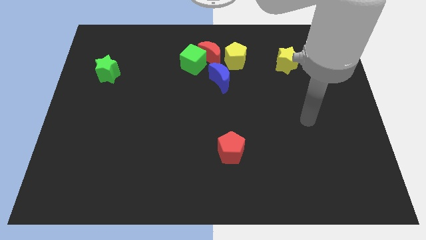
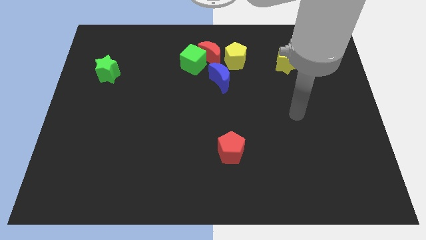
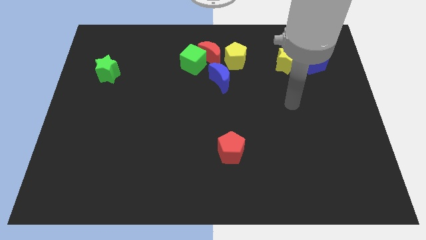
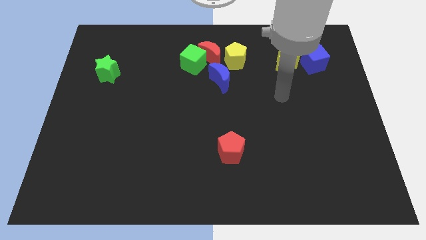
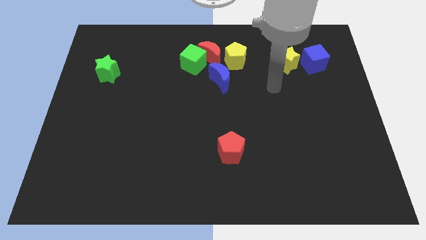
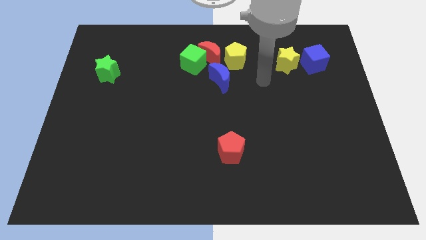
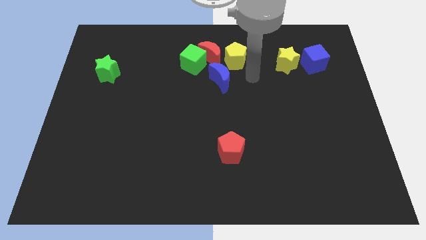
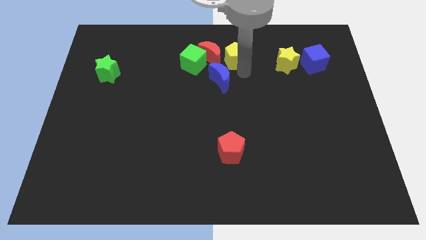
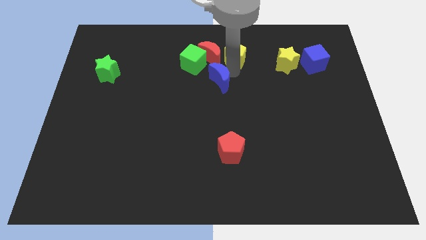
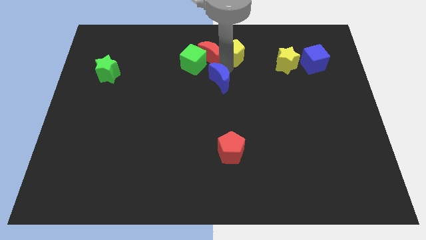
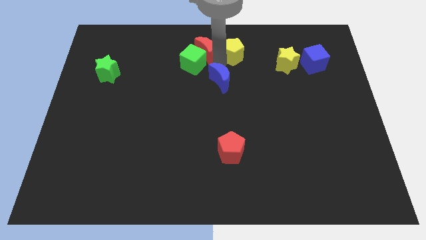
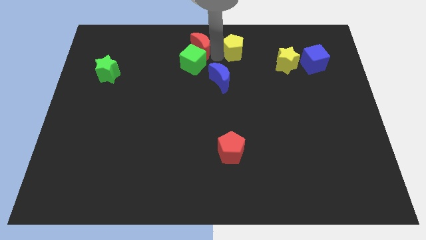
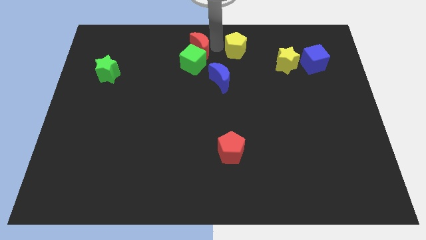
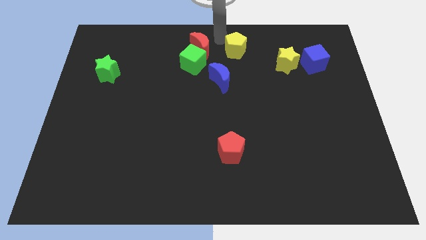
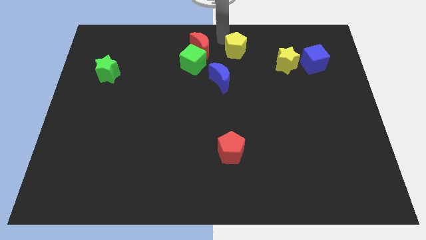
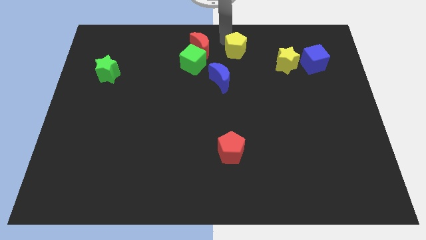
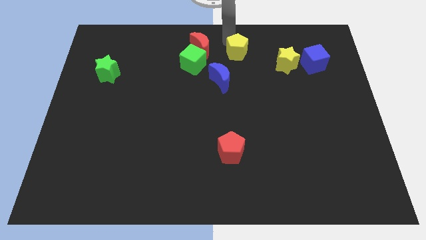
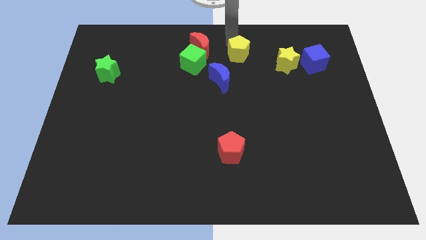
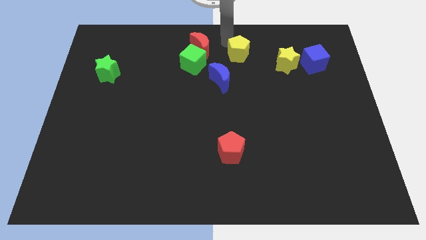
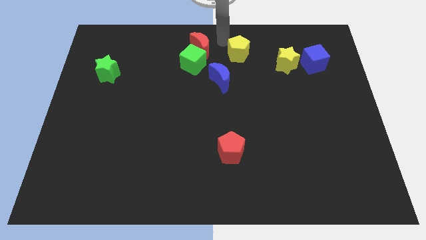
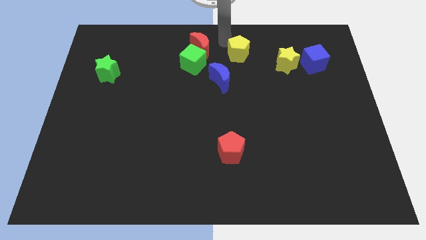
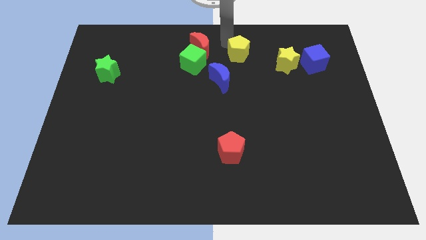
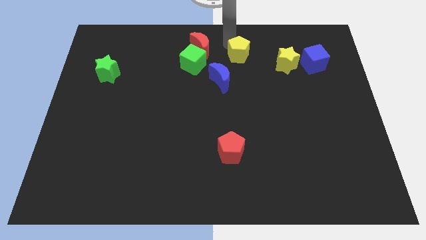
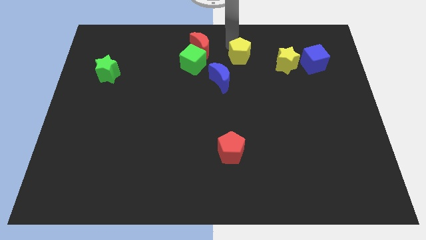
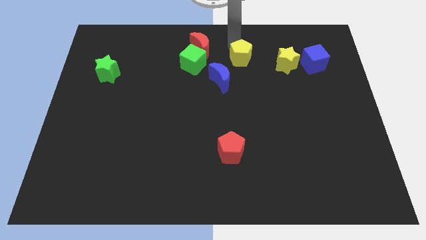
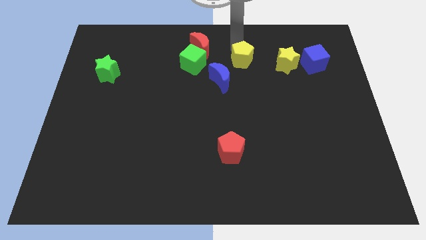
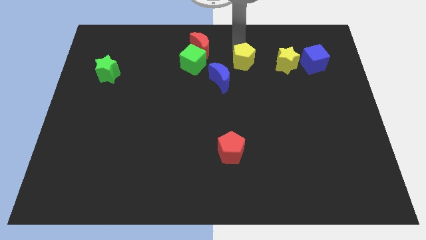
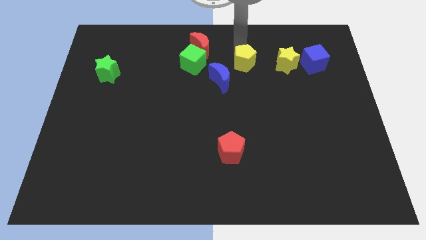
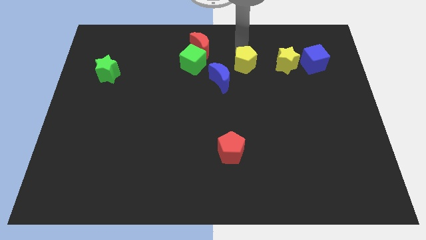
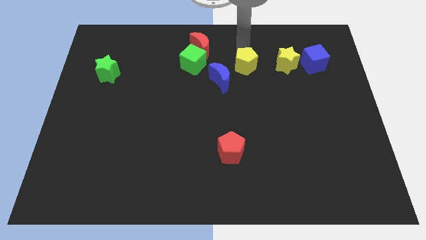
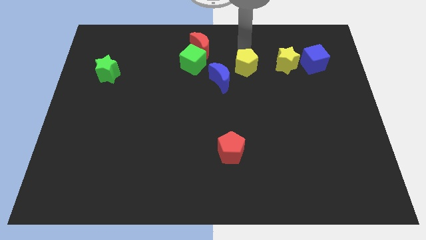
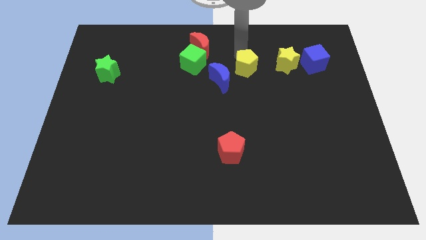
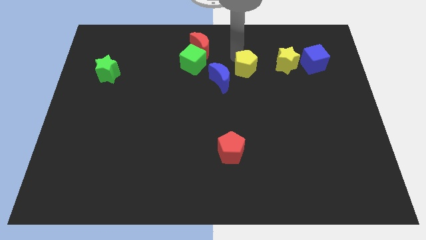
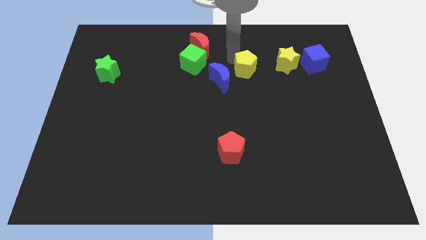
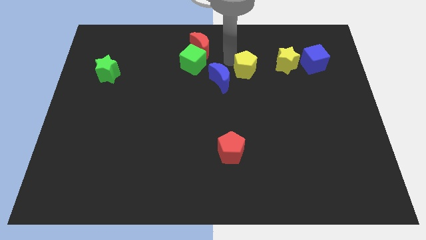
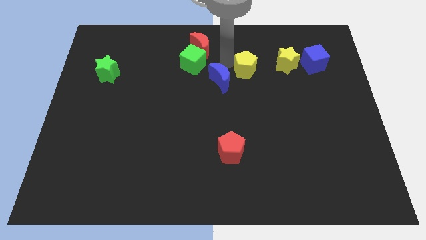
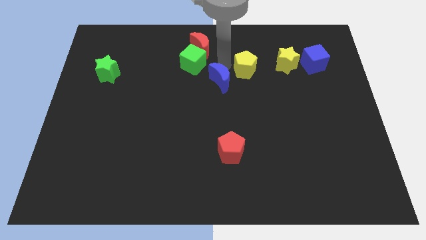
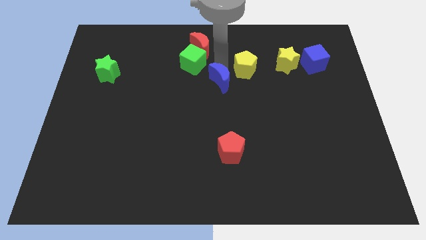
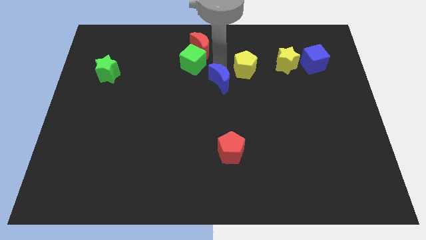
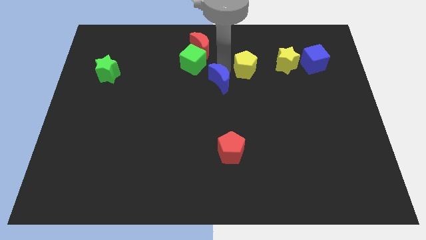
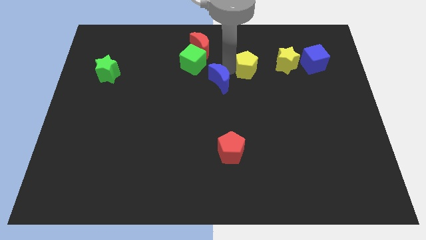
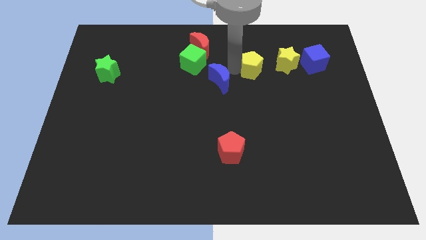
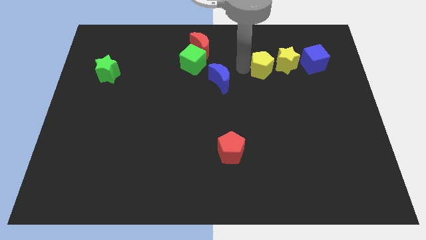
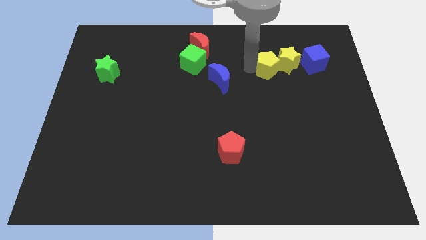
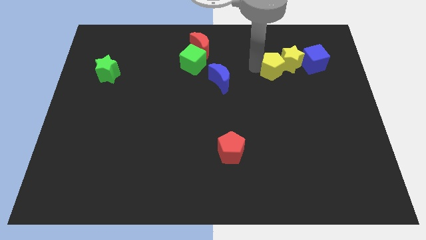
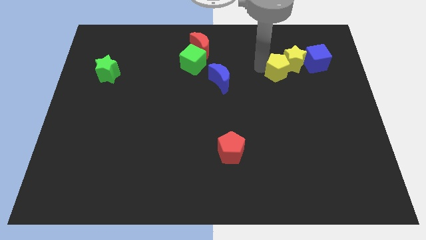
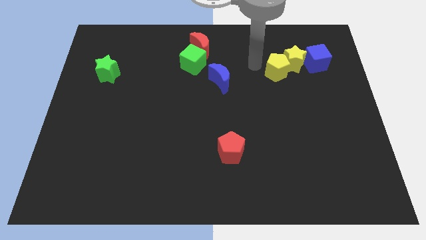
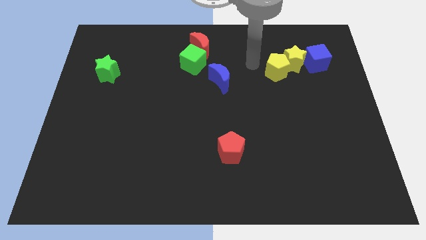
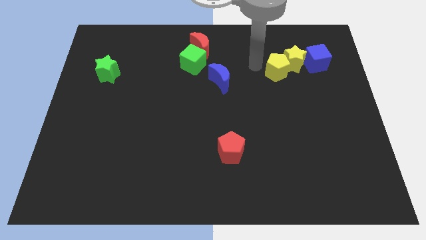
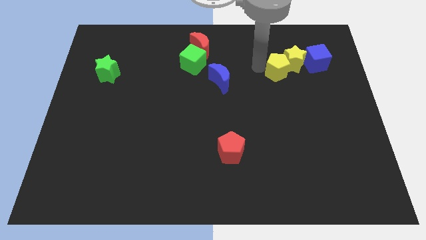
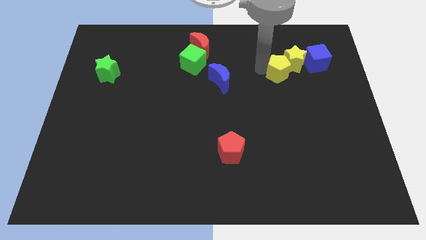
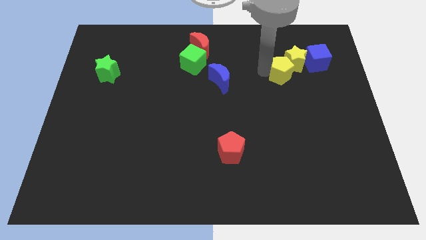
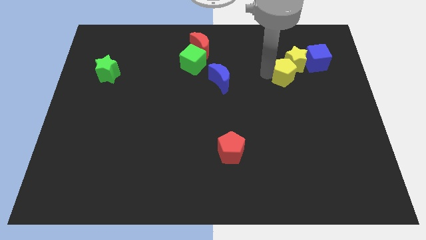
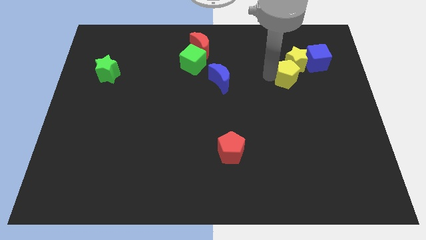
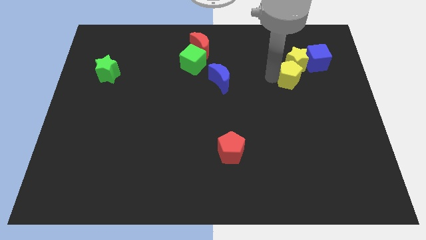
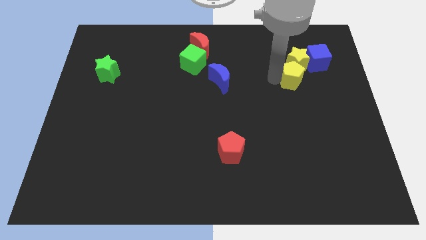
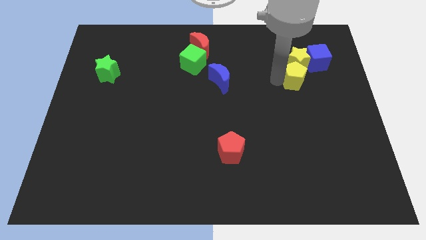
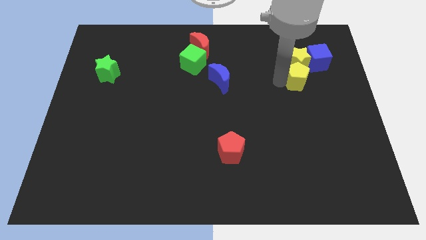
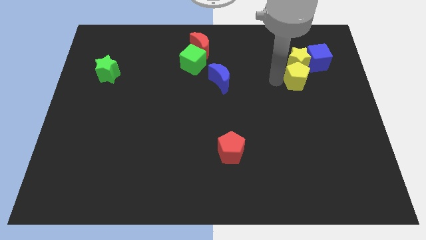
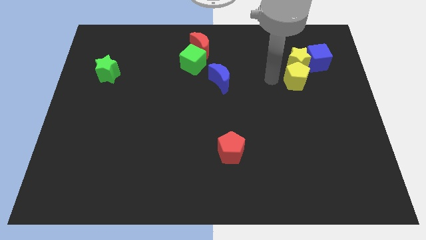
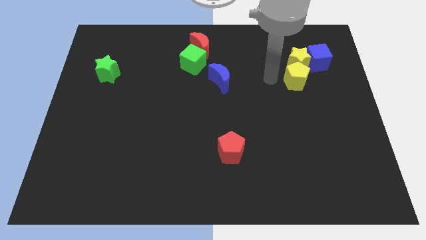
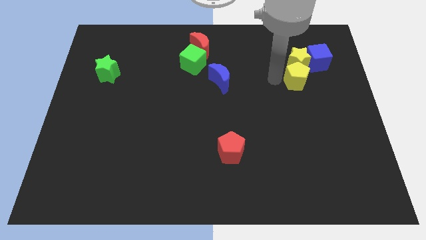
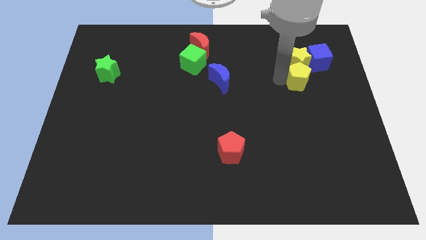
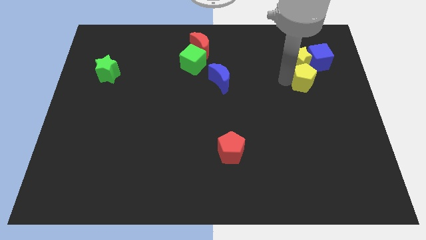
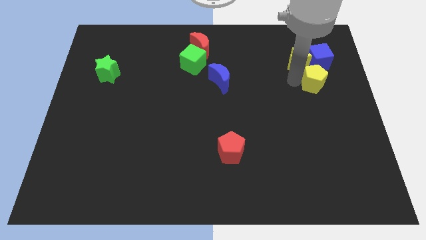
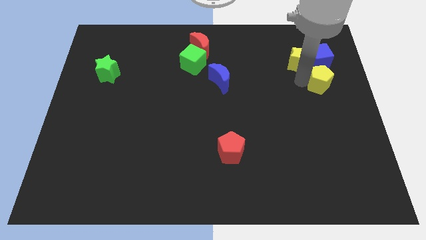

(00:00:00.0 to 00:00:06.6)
put the yellow pentagon to the center right

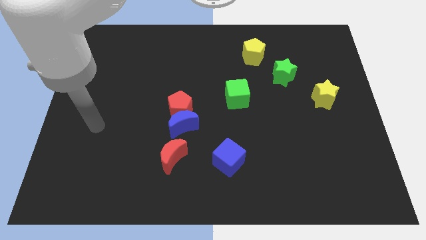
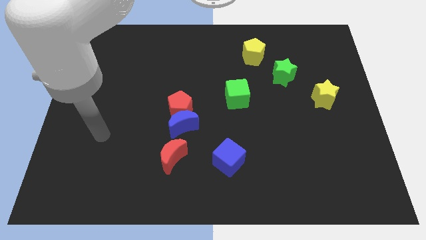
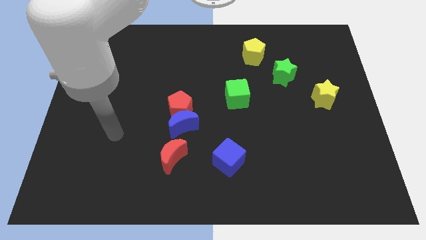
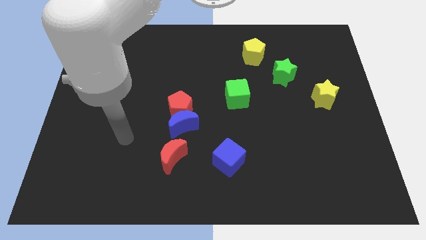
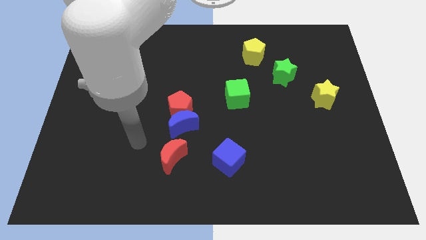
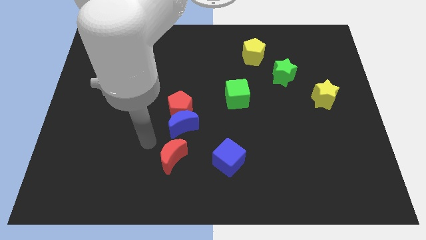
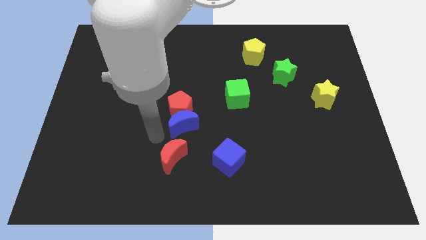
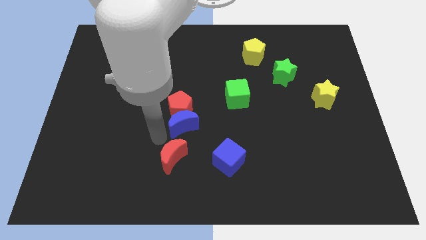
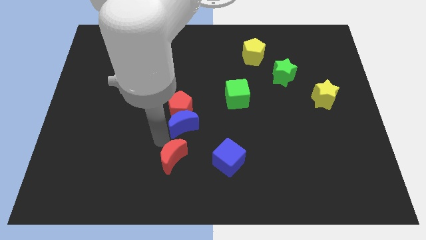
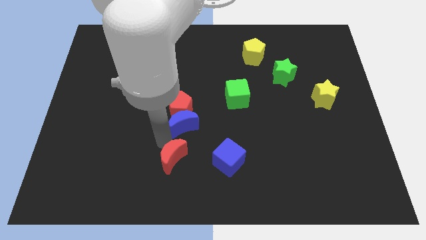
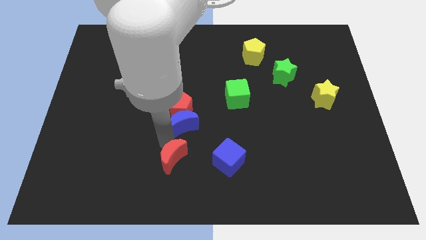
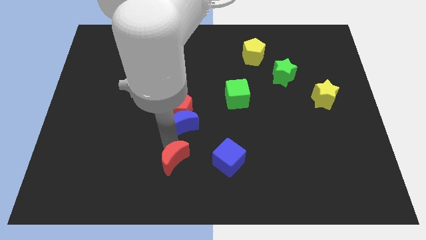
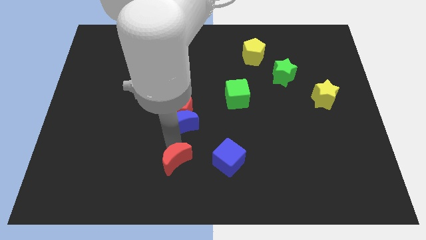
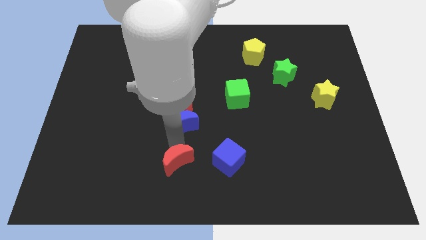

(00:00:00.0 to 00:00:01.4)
push the red moon to the bottom side
